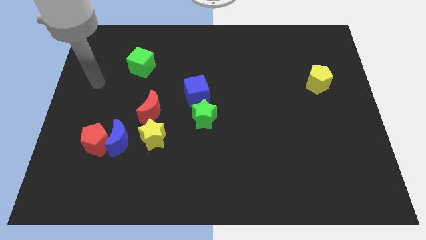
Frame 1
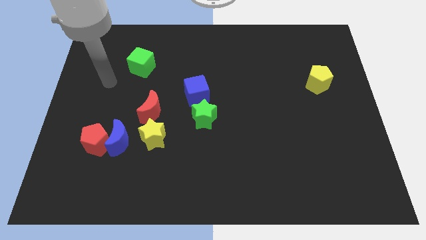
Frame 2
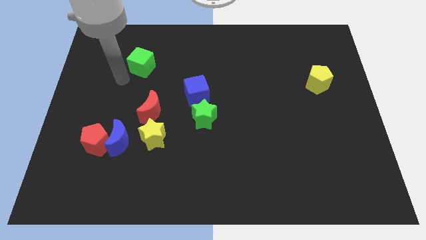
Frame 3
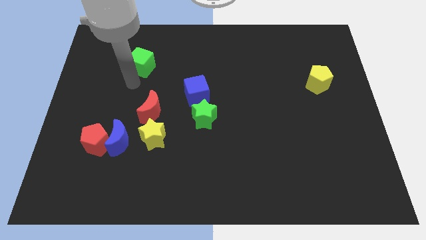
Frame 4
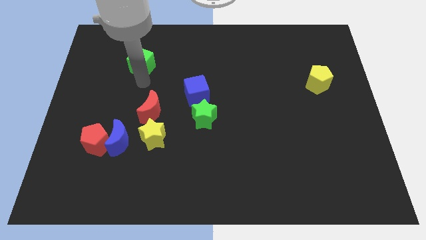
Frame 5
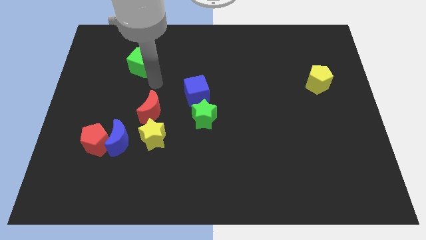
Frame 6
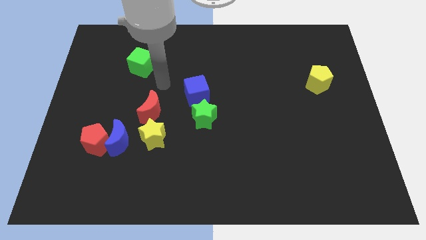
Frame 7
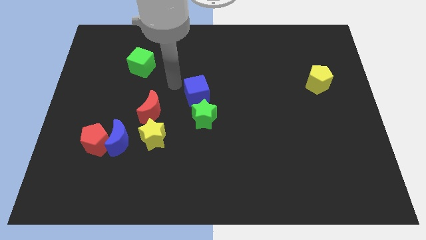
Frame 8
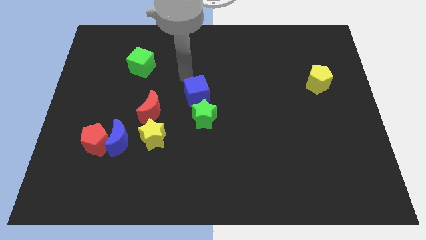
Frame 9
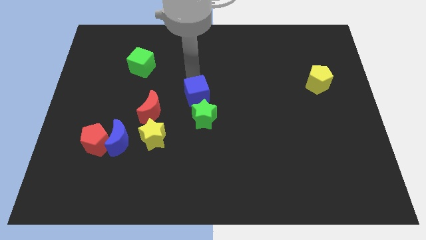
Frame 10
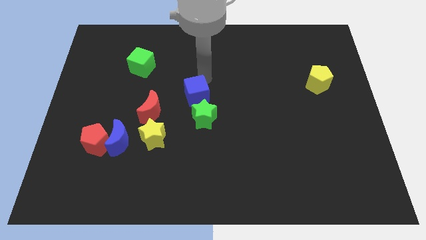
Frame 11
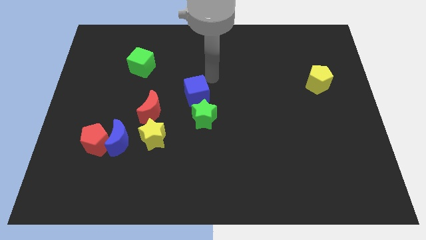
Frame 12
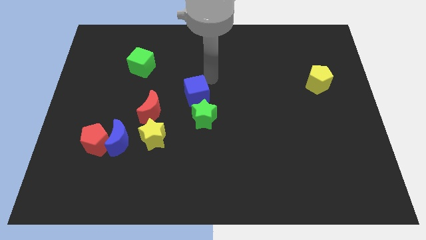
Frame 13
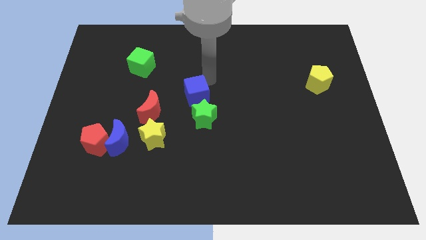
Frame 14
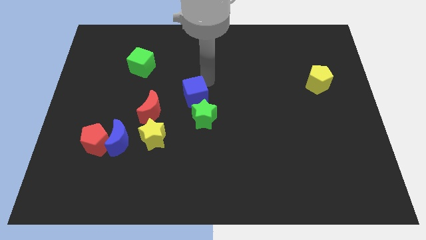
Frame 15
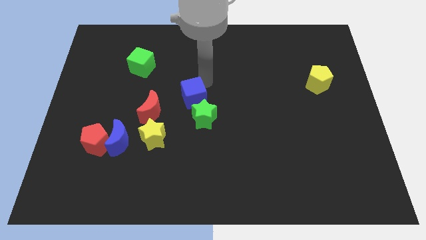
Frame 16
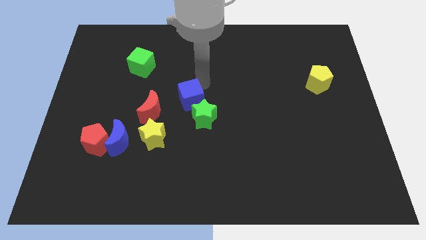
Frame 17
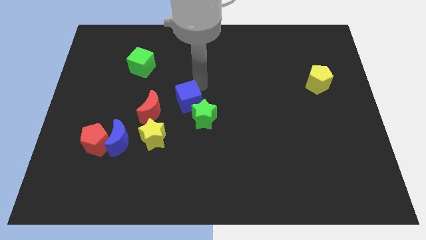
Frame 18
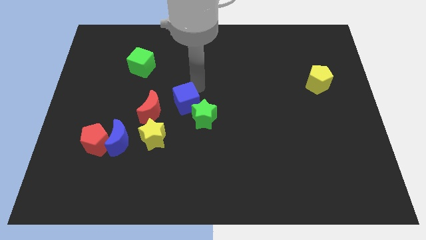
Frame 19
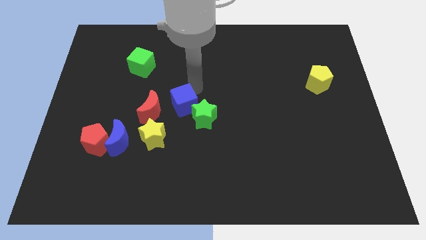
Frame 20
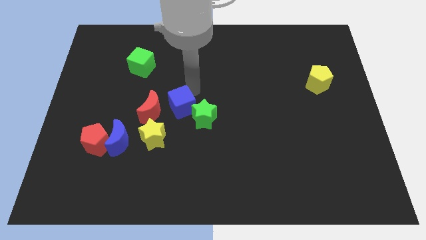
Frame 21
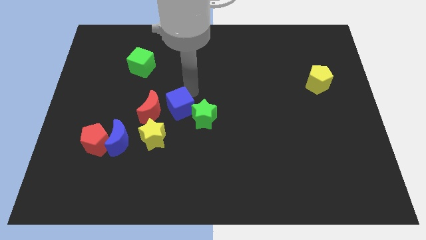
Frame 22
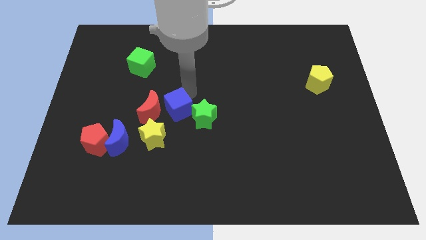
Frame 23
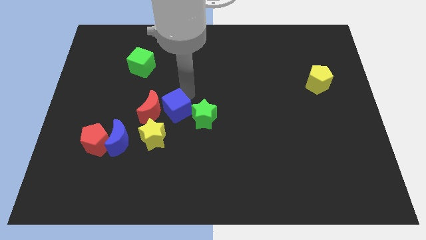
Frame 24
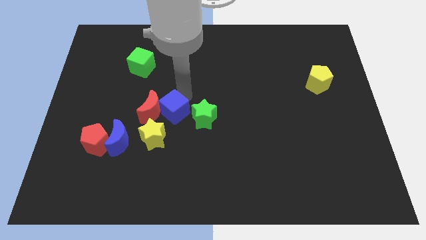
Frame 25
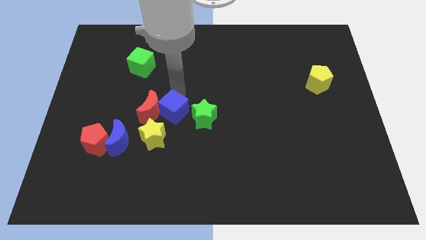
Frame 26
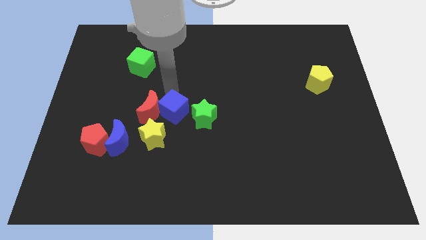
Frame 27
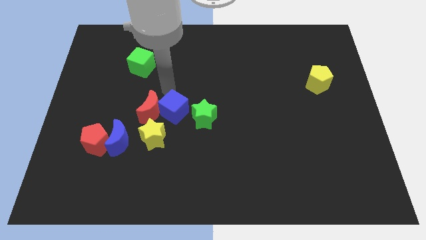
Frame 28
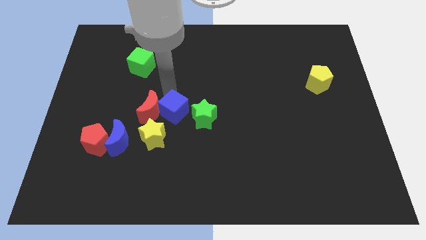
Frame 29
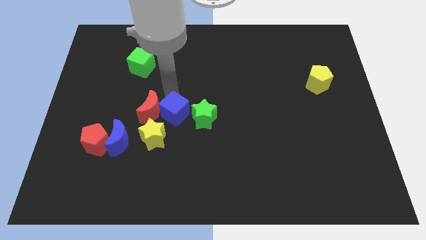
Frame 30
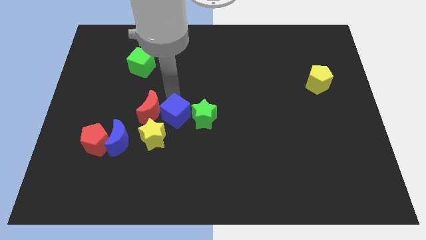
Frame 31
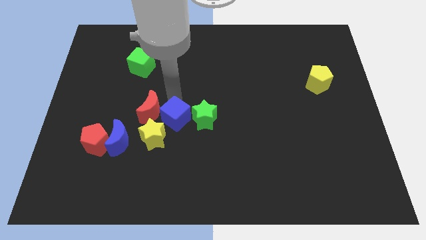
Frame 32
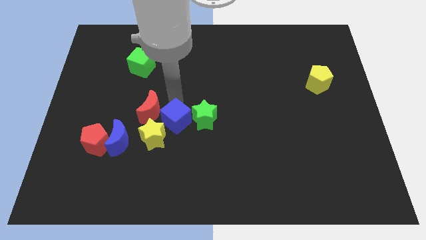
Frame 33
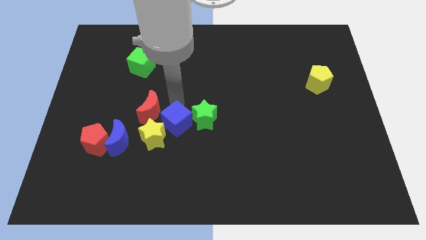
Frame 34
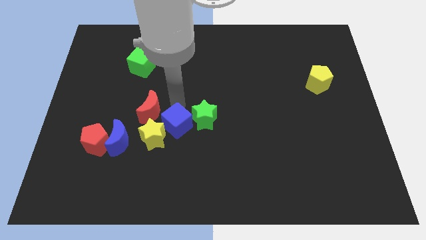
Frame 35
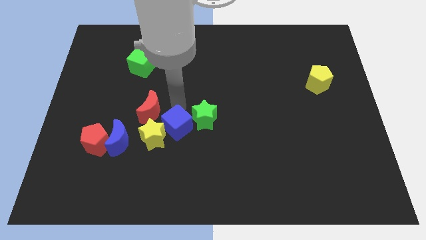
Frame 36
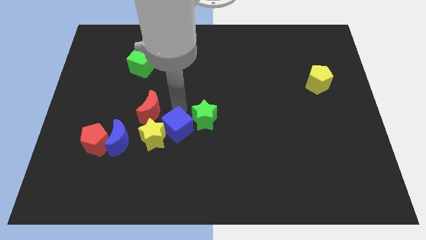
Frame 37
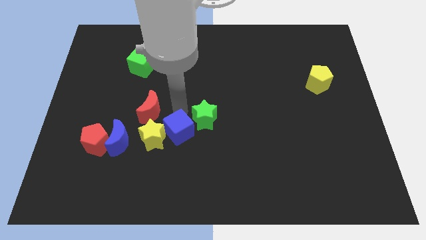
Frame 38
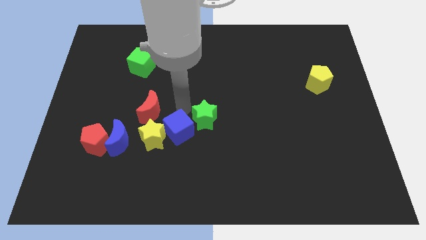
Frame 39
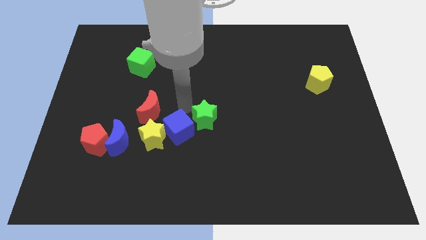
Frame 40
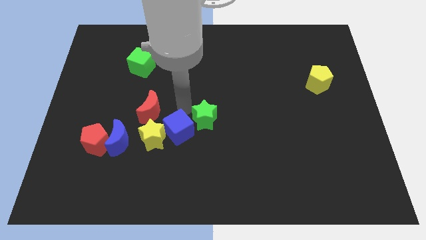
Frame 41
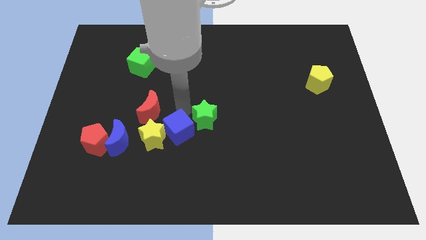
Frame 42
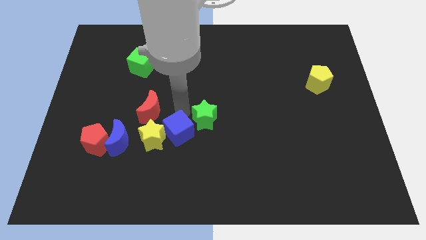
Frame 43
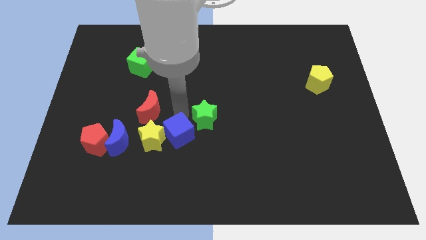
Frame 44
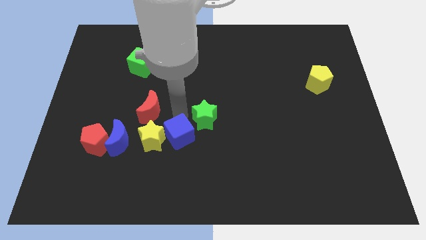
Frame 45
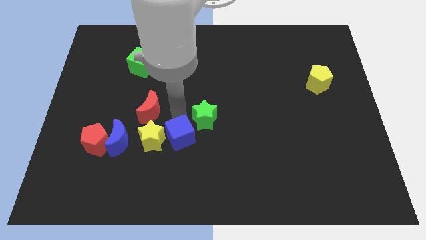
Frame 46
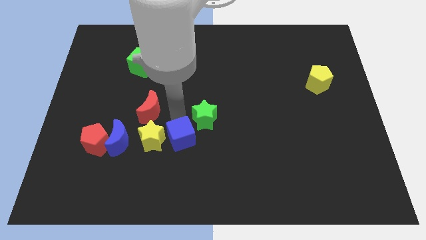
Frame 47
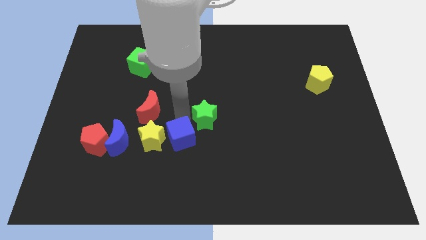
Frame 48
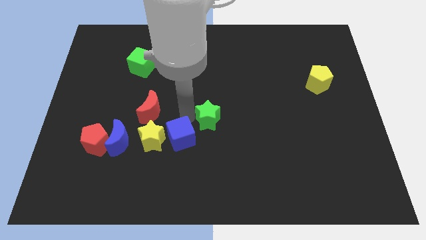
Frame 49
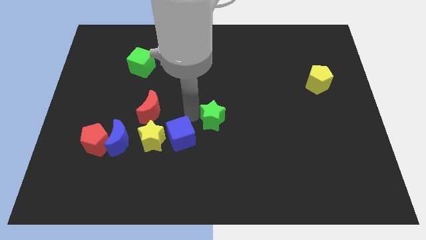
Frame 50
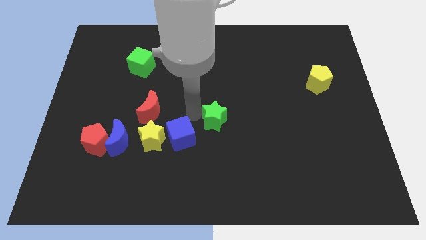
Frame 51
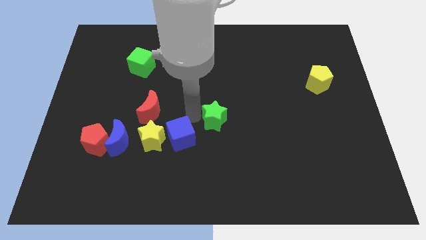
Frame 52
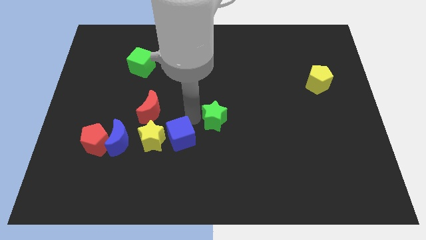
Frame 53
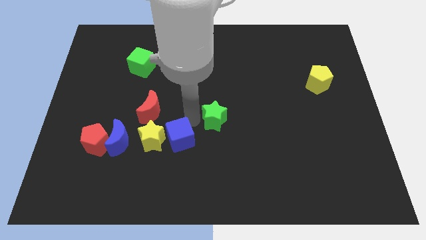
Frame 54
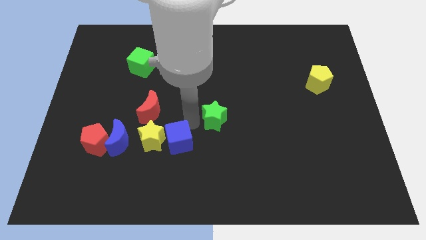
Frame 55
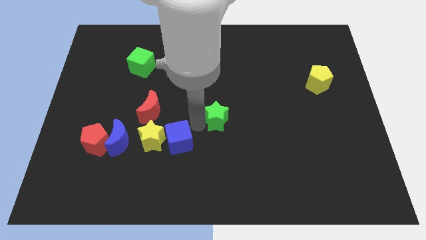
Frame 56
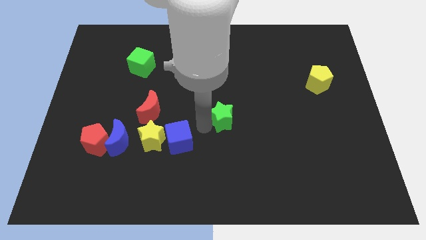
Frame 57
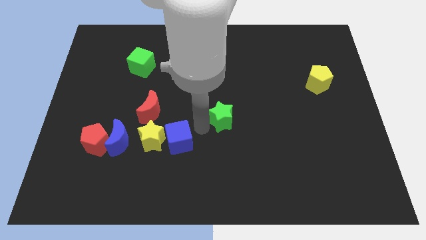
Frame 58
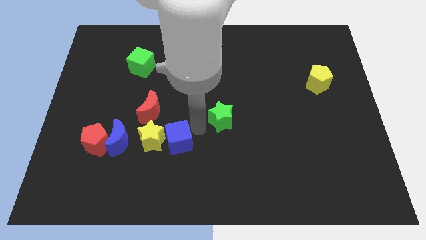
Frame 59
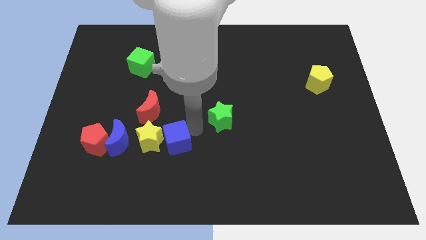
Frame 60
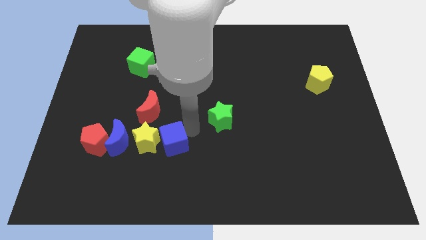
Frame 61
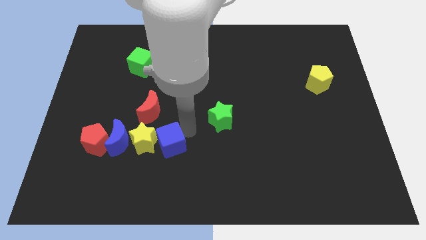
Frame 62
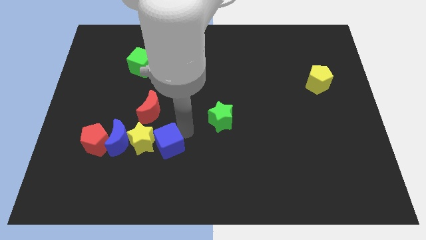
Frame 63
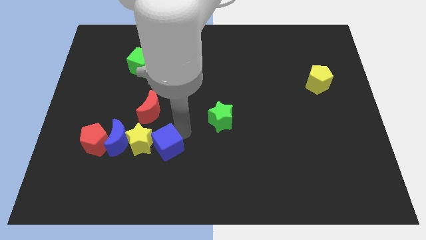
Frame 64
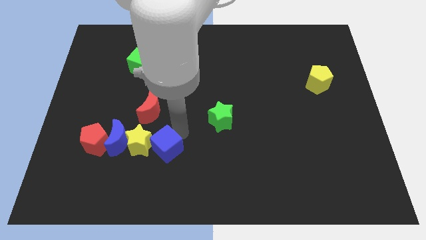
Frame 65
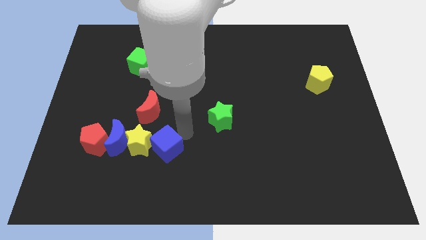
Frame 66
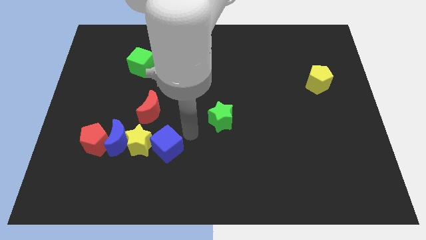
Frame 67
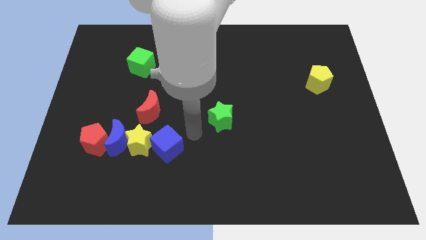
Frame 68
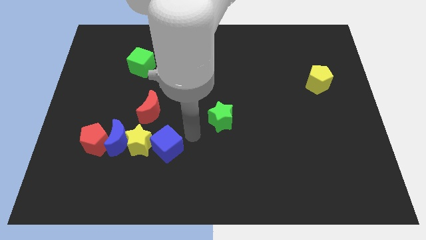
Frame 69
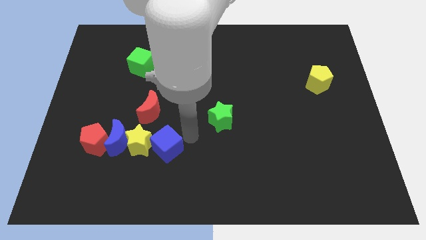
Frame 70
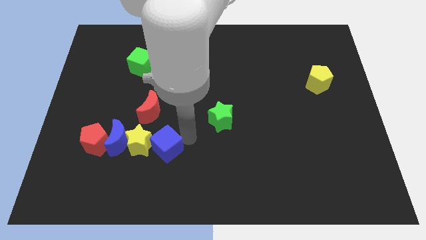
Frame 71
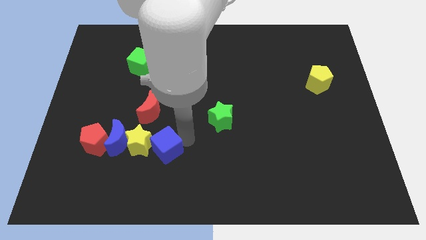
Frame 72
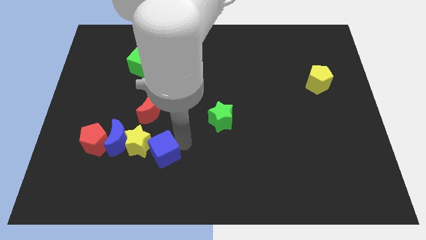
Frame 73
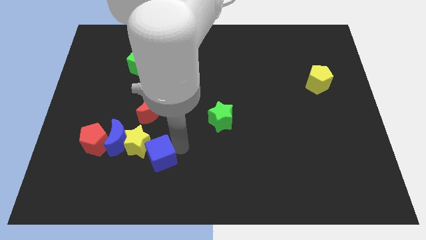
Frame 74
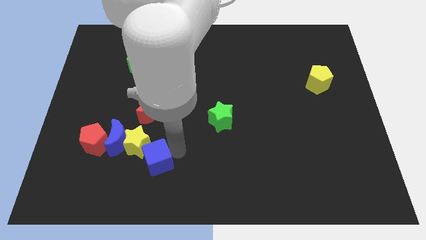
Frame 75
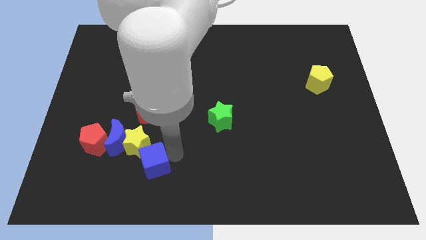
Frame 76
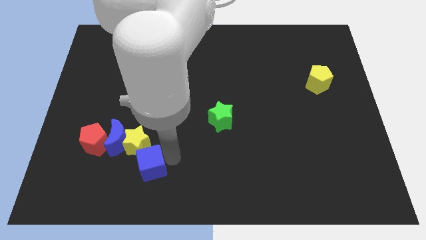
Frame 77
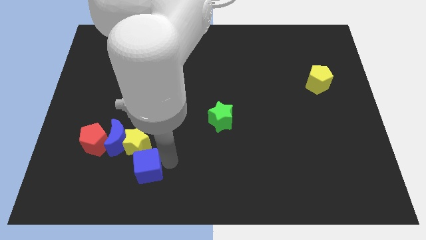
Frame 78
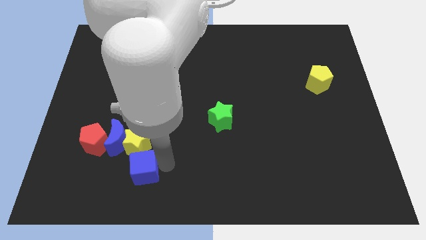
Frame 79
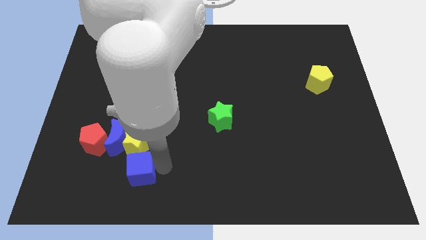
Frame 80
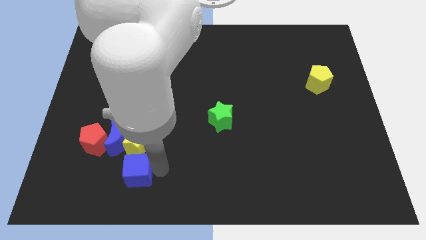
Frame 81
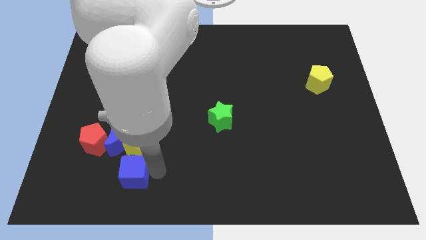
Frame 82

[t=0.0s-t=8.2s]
move the blue cube to the bottom left of the yellow star
